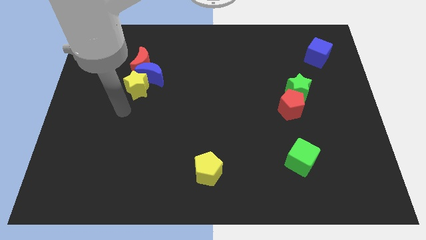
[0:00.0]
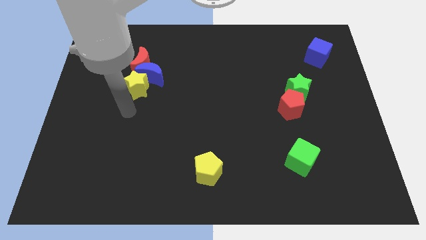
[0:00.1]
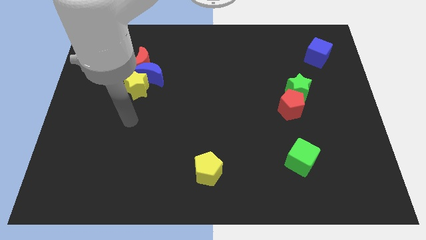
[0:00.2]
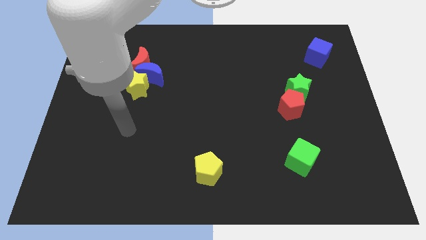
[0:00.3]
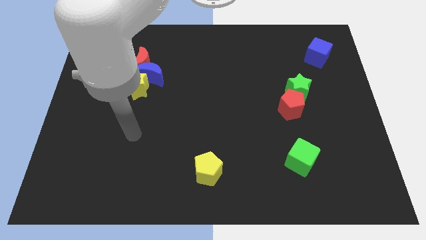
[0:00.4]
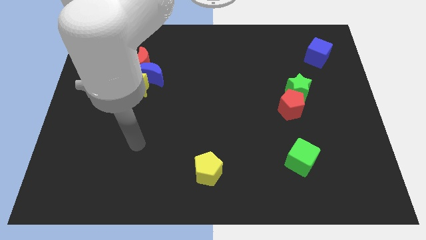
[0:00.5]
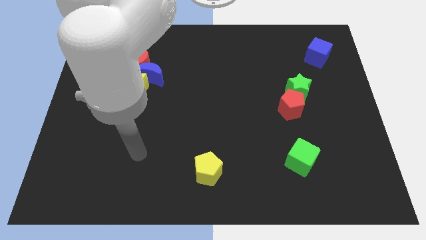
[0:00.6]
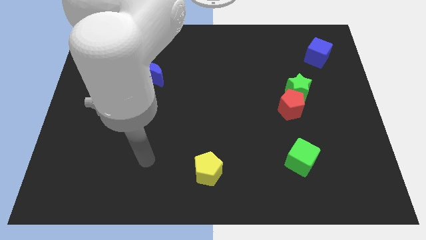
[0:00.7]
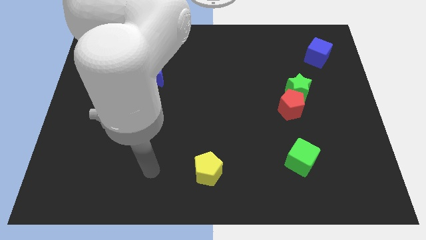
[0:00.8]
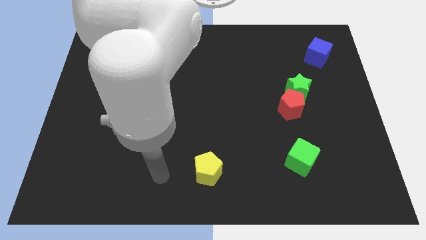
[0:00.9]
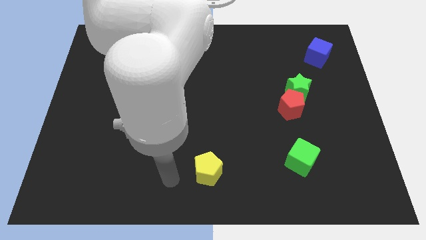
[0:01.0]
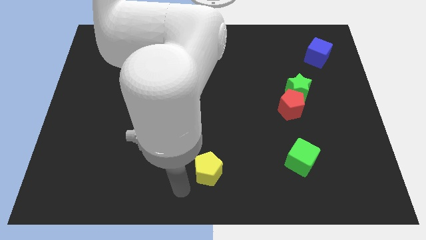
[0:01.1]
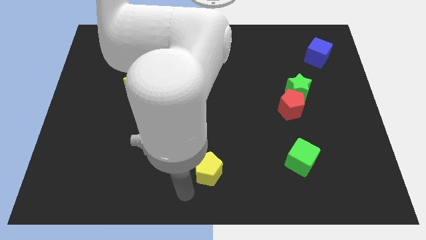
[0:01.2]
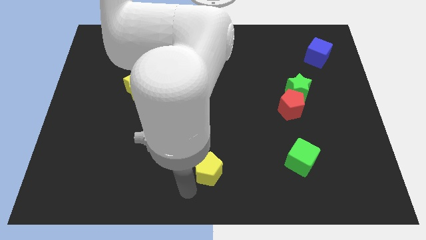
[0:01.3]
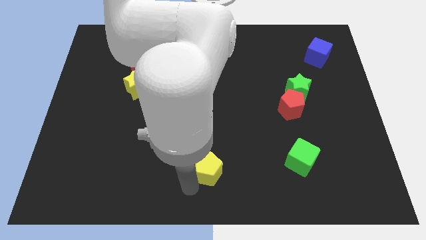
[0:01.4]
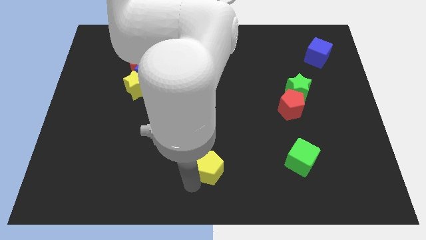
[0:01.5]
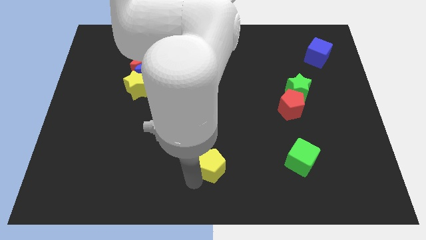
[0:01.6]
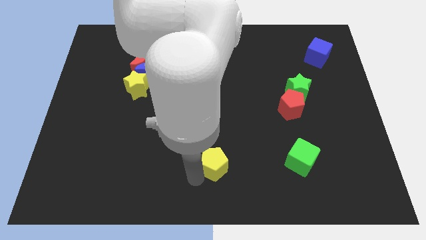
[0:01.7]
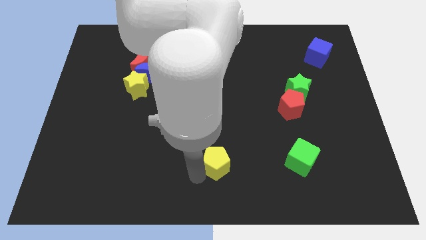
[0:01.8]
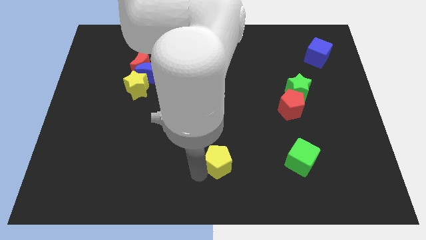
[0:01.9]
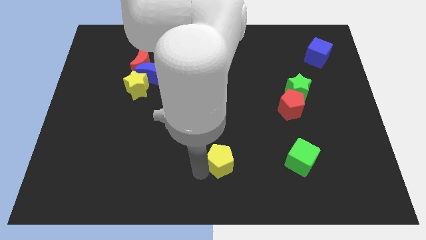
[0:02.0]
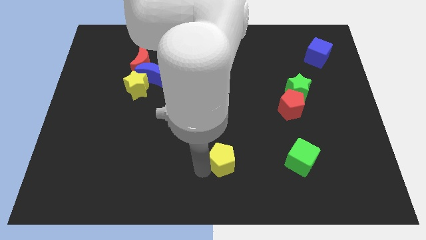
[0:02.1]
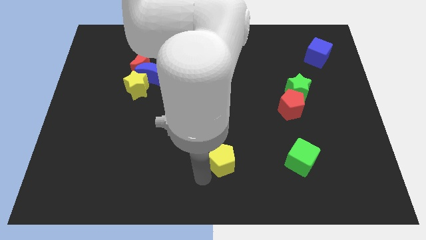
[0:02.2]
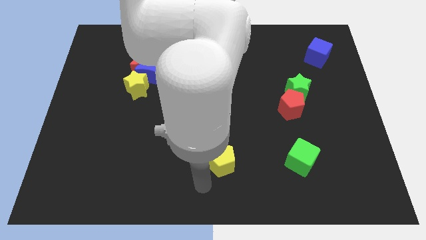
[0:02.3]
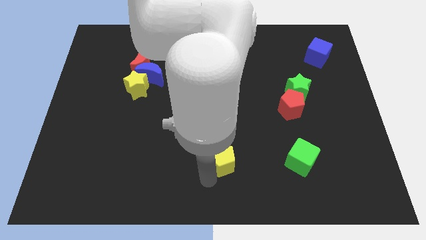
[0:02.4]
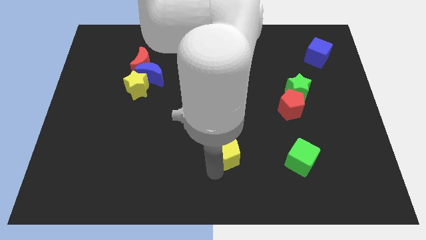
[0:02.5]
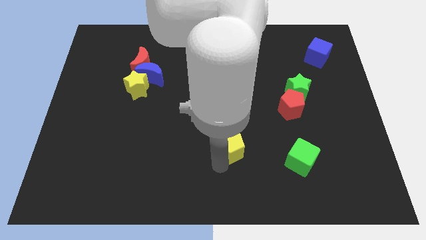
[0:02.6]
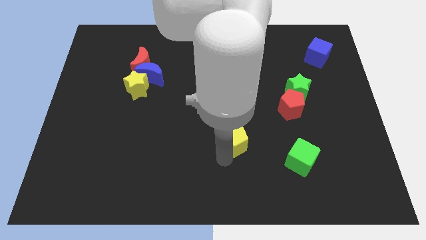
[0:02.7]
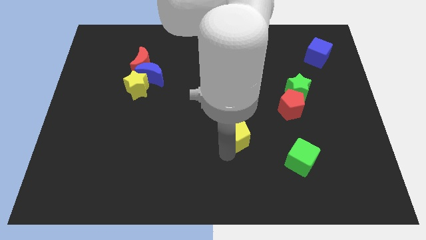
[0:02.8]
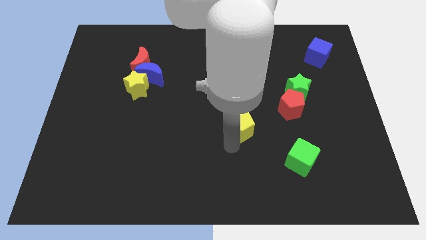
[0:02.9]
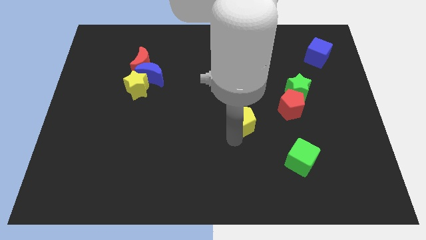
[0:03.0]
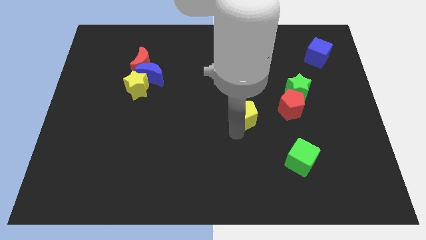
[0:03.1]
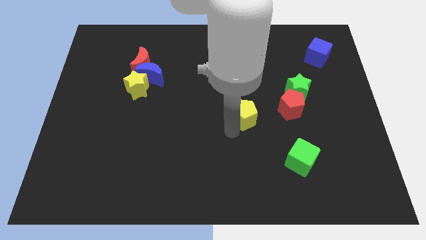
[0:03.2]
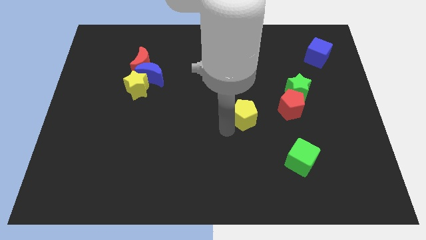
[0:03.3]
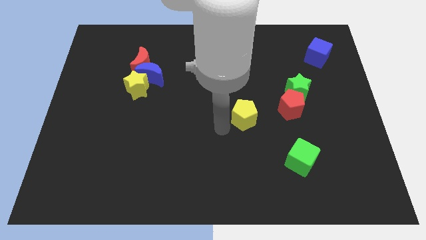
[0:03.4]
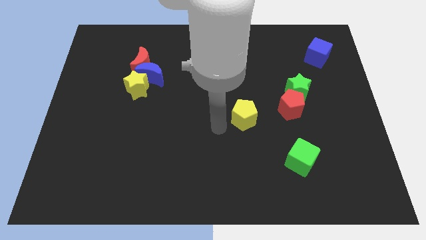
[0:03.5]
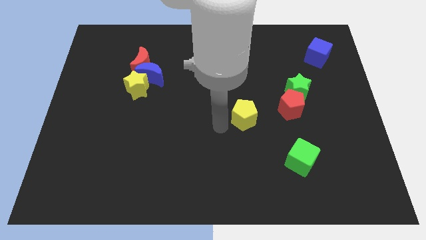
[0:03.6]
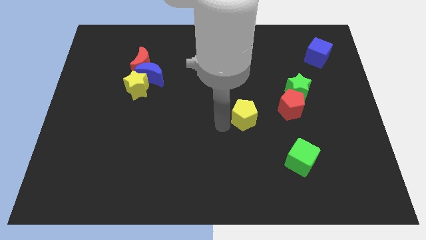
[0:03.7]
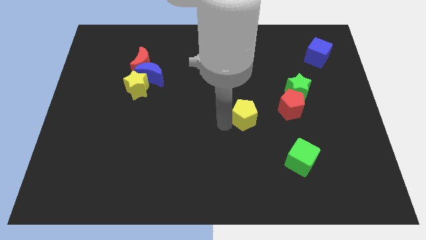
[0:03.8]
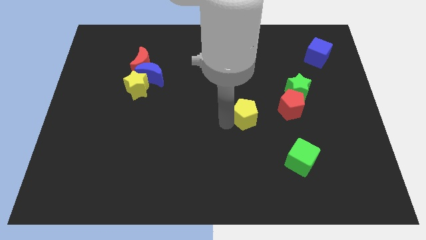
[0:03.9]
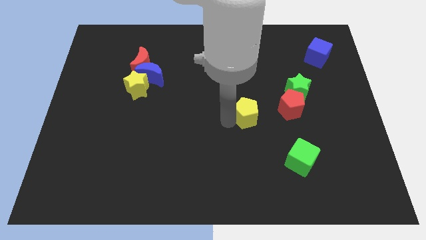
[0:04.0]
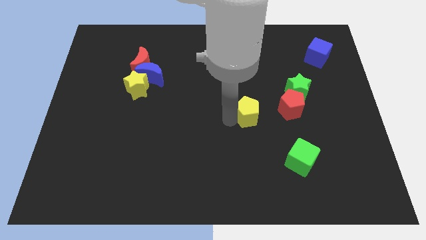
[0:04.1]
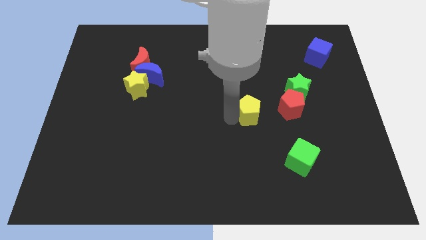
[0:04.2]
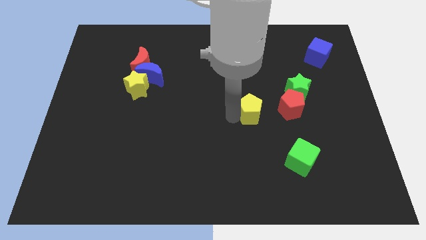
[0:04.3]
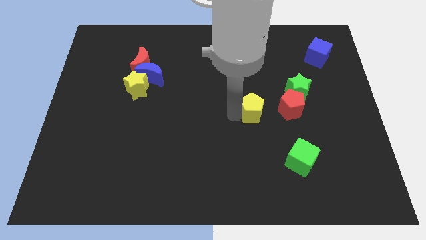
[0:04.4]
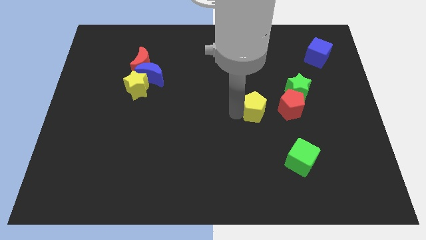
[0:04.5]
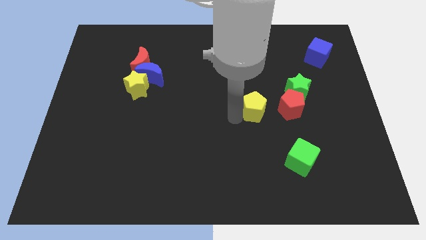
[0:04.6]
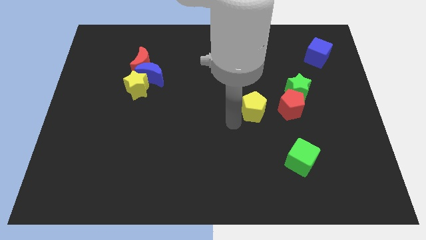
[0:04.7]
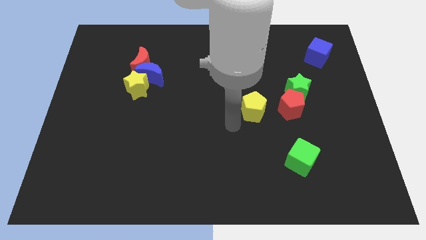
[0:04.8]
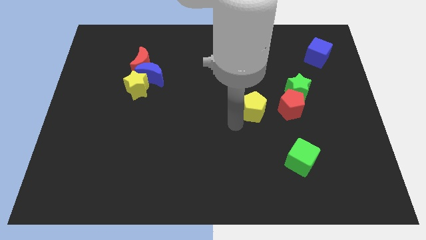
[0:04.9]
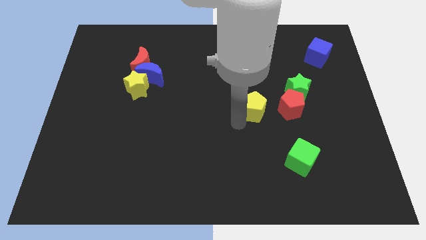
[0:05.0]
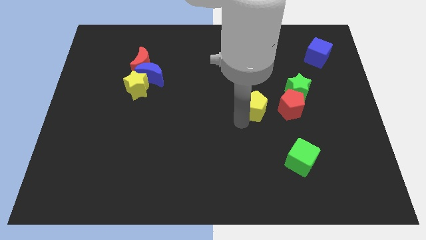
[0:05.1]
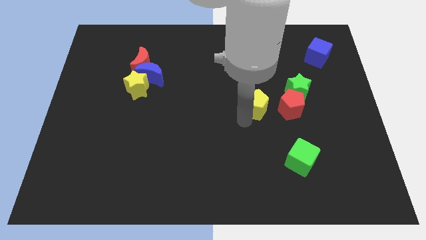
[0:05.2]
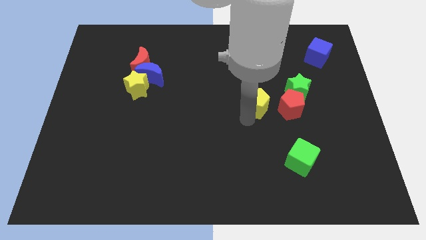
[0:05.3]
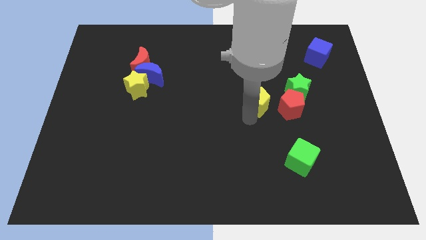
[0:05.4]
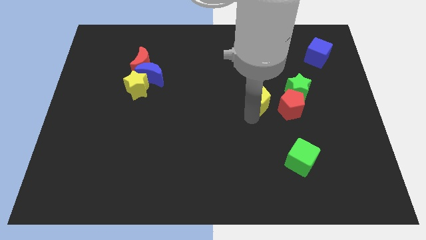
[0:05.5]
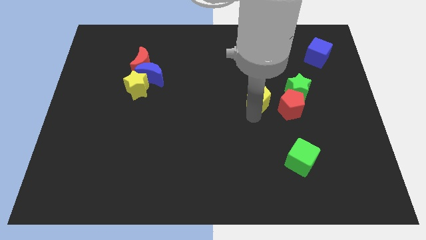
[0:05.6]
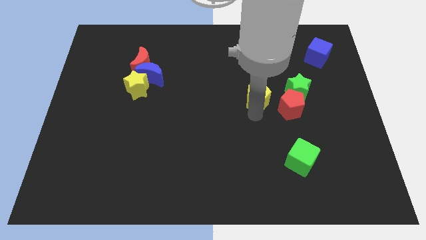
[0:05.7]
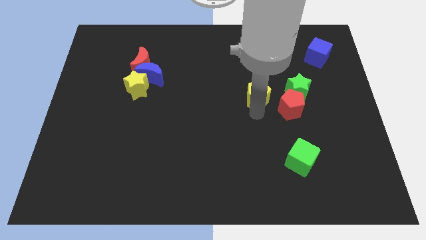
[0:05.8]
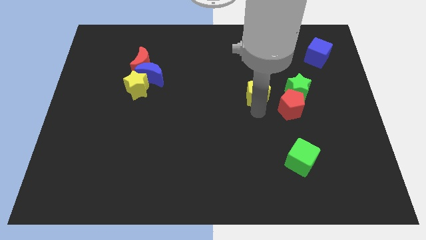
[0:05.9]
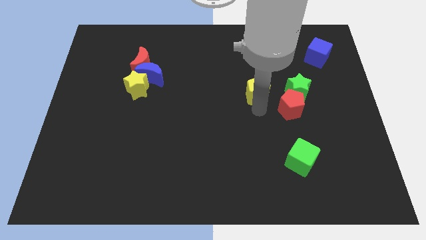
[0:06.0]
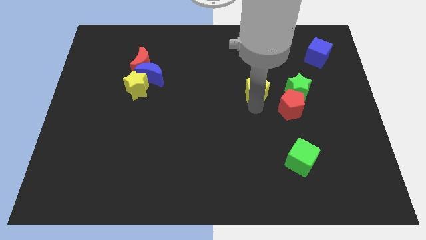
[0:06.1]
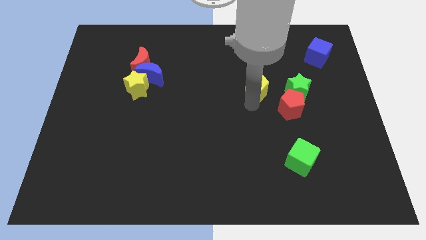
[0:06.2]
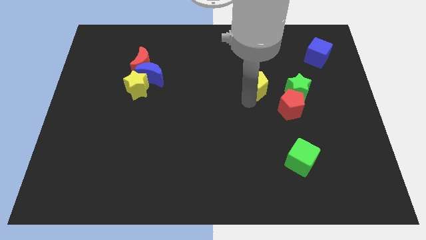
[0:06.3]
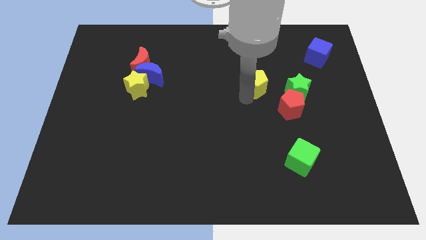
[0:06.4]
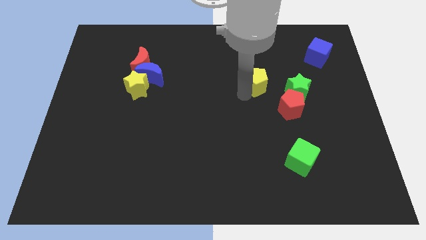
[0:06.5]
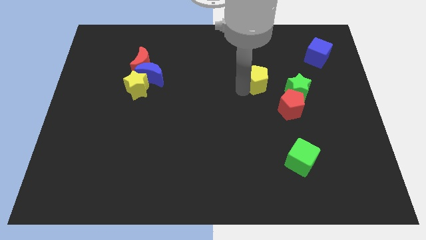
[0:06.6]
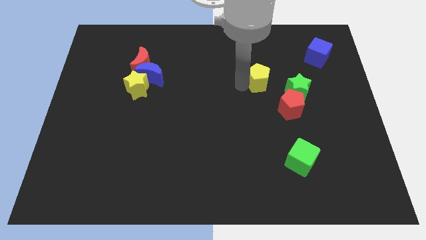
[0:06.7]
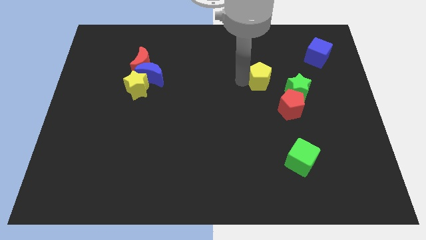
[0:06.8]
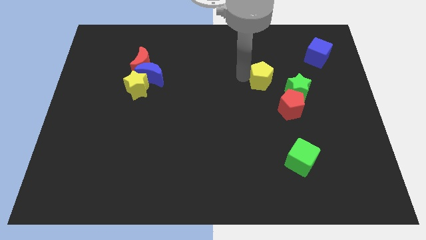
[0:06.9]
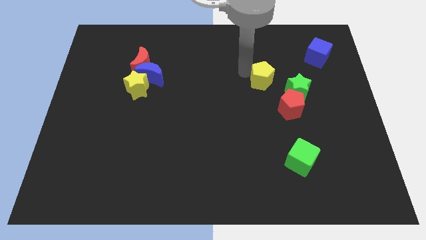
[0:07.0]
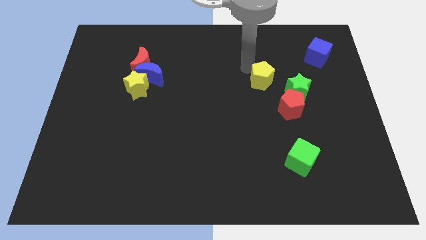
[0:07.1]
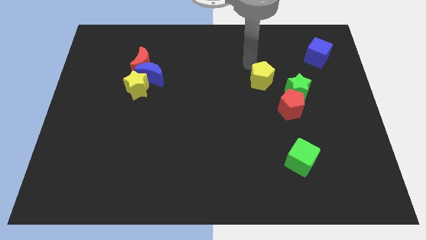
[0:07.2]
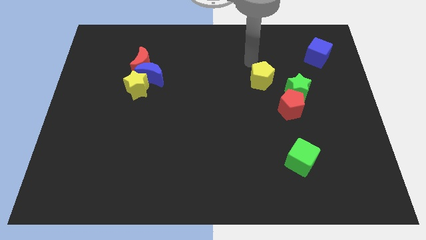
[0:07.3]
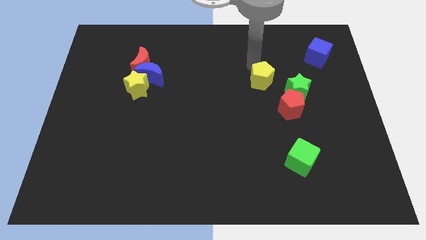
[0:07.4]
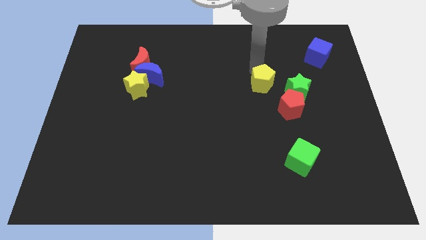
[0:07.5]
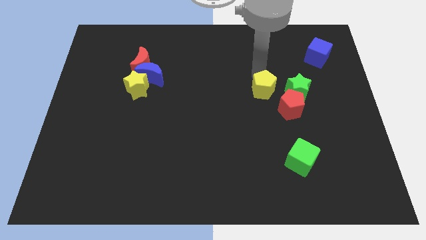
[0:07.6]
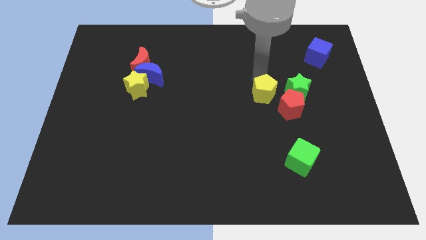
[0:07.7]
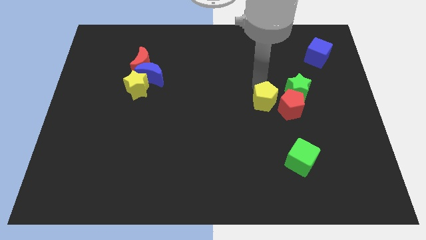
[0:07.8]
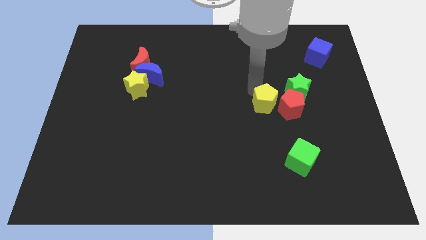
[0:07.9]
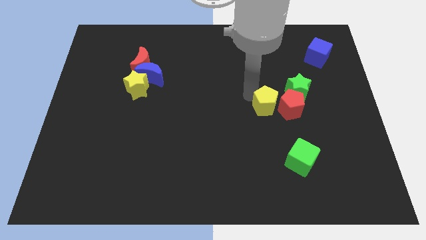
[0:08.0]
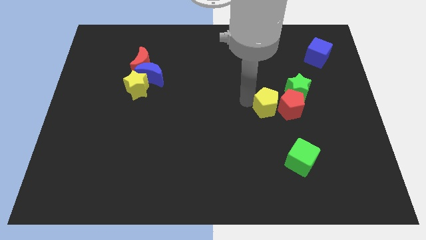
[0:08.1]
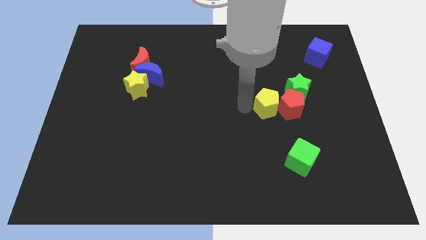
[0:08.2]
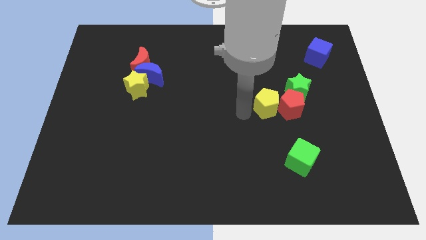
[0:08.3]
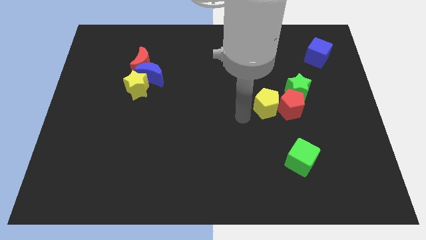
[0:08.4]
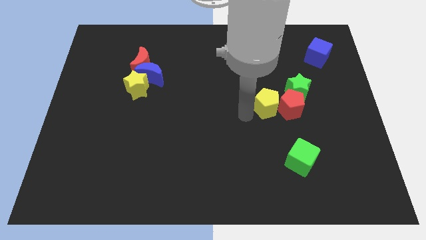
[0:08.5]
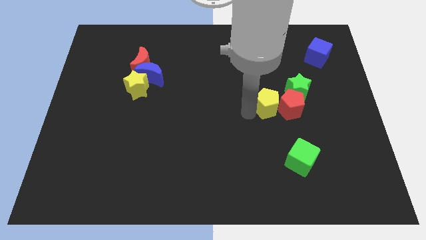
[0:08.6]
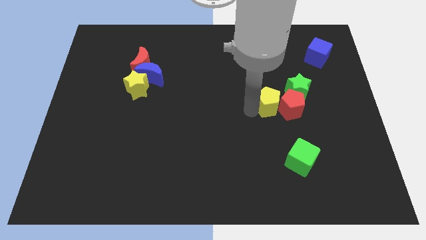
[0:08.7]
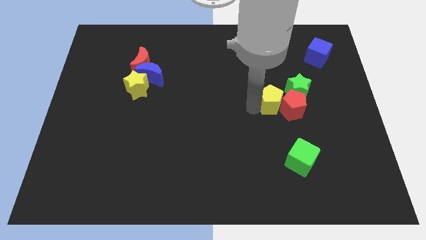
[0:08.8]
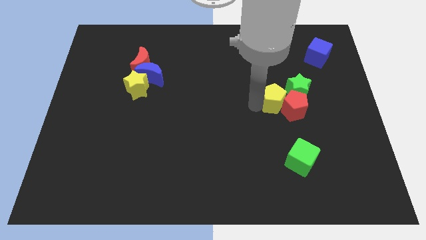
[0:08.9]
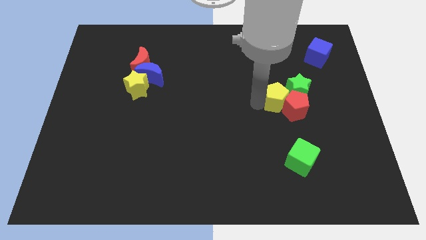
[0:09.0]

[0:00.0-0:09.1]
push the yellow pentagon to the green star
